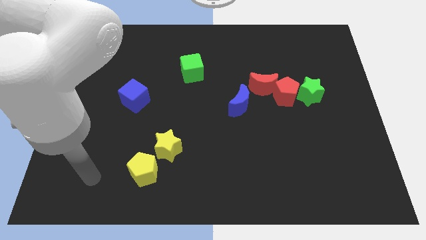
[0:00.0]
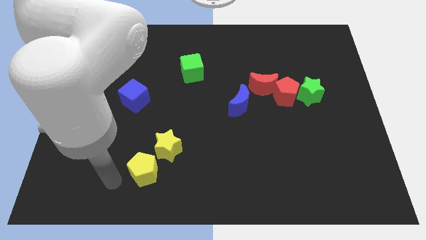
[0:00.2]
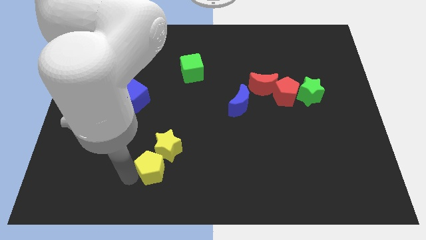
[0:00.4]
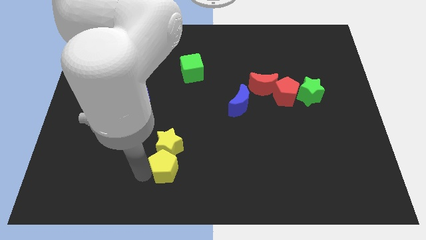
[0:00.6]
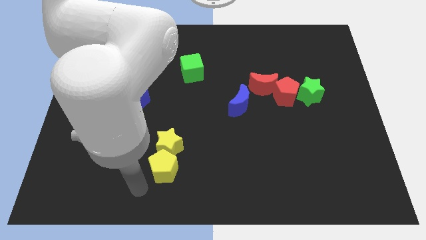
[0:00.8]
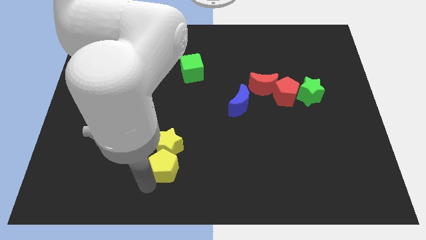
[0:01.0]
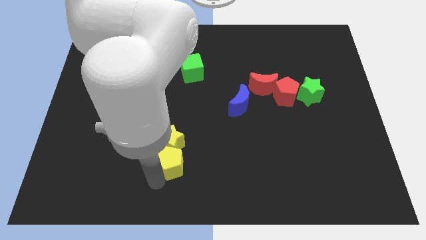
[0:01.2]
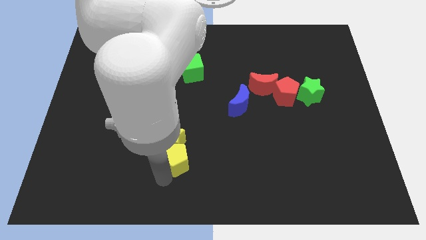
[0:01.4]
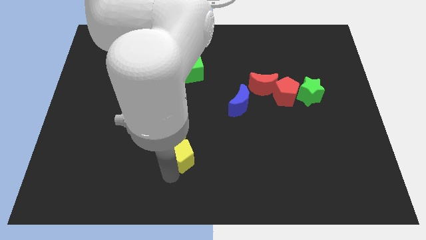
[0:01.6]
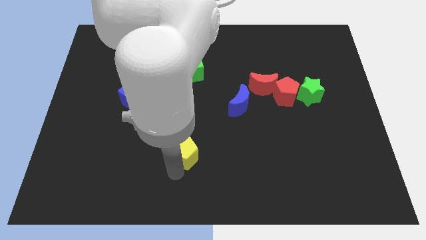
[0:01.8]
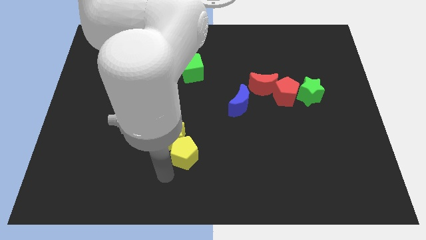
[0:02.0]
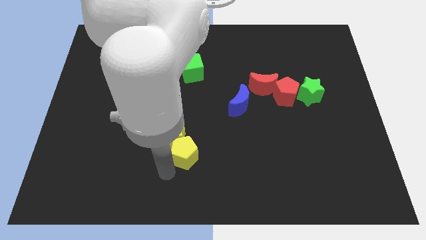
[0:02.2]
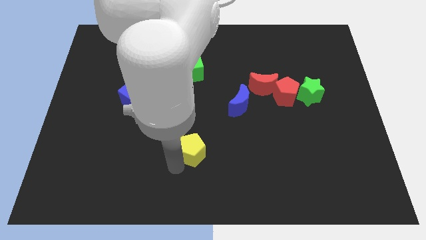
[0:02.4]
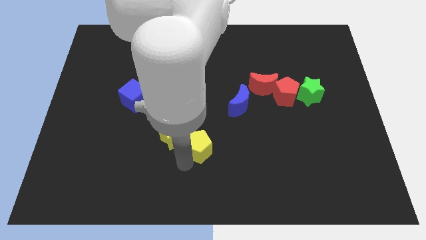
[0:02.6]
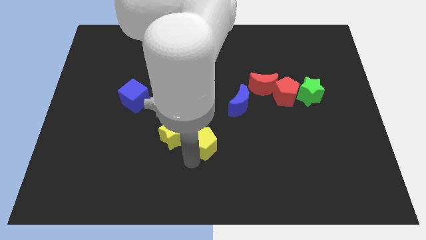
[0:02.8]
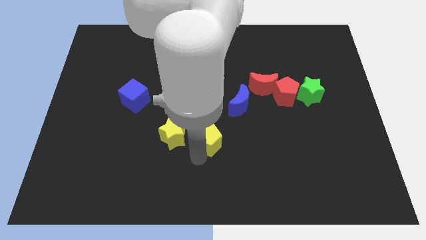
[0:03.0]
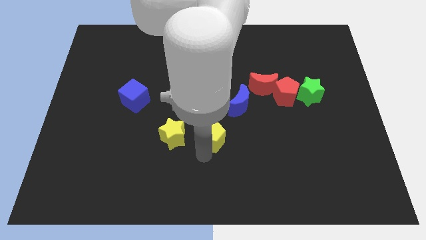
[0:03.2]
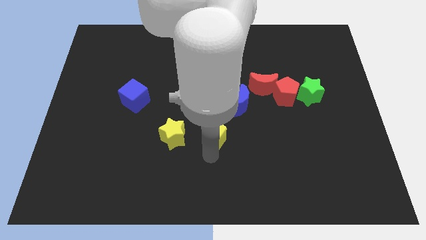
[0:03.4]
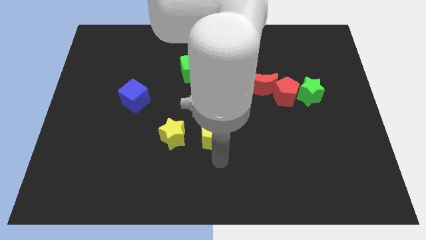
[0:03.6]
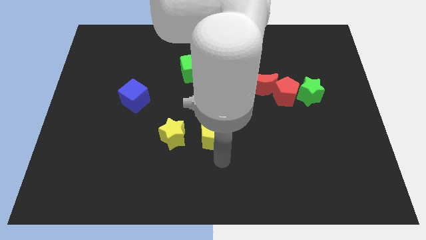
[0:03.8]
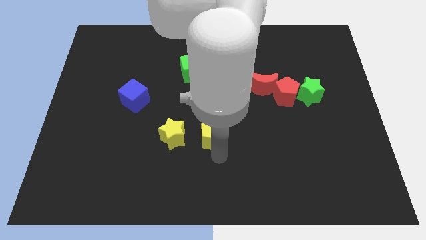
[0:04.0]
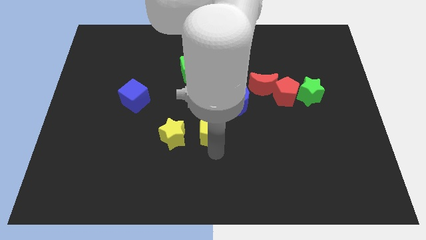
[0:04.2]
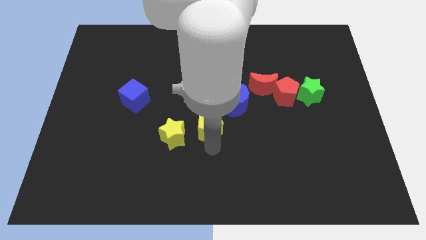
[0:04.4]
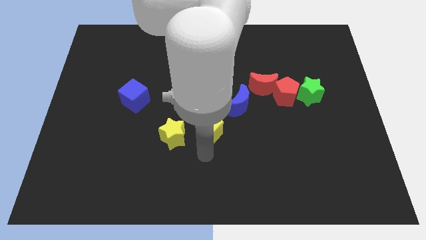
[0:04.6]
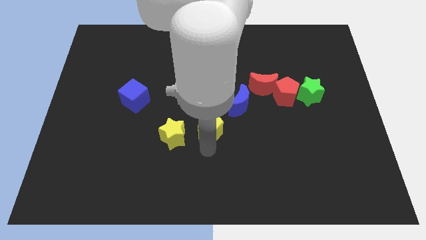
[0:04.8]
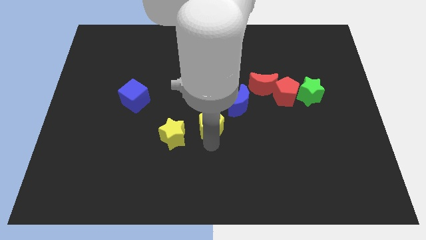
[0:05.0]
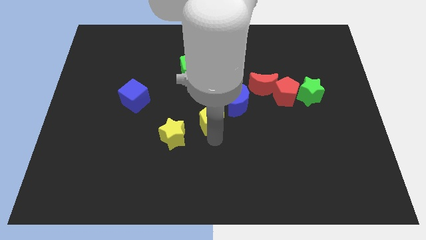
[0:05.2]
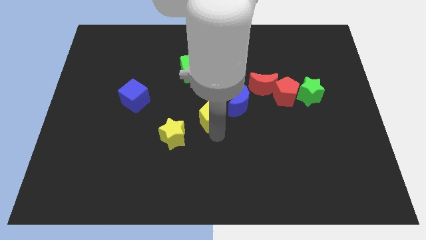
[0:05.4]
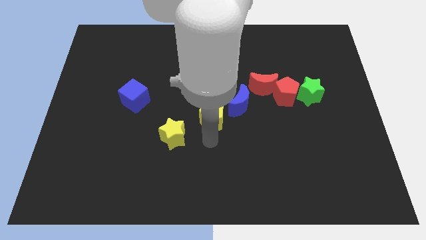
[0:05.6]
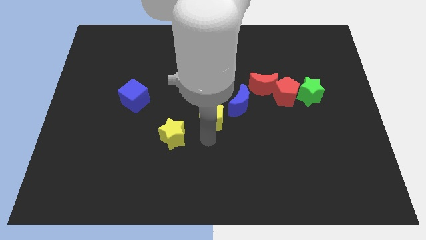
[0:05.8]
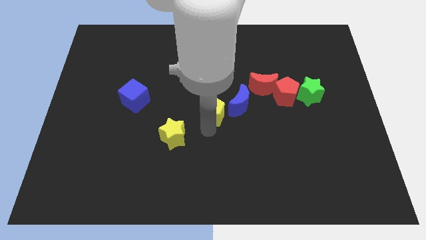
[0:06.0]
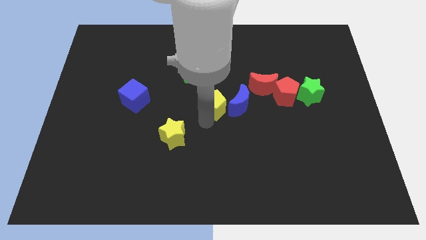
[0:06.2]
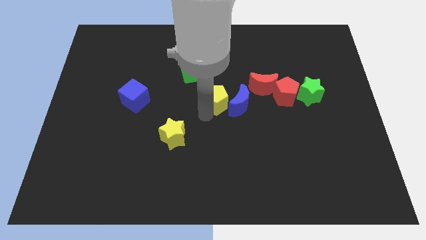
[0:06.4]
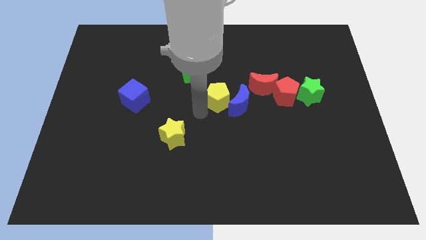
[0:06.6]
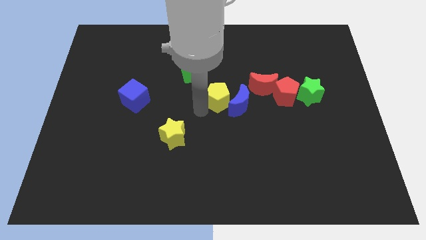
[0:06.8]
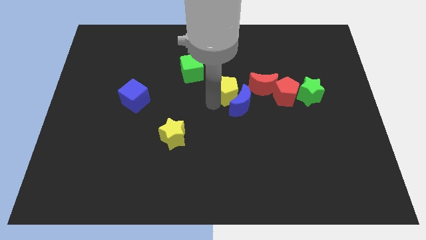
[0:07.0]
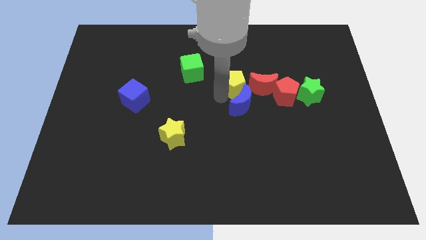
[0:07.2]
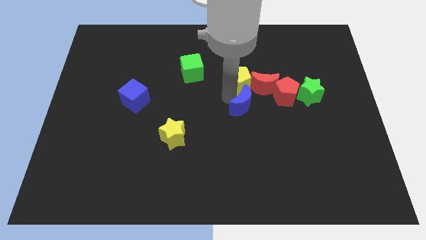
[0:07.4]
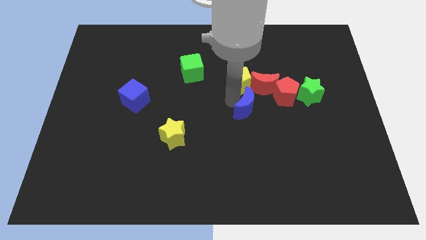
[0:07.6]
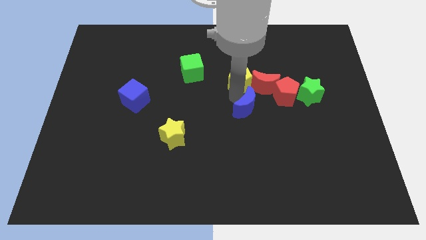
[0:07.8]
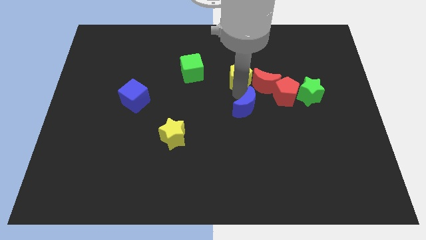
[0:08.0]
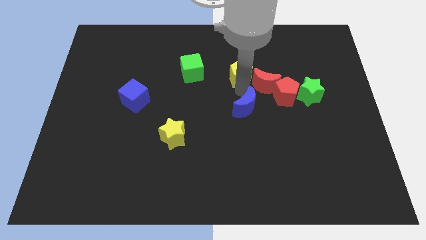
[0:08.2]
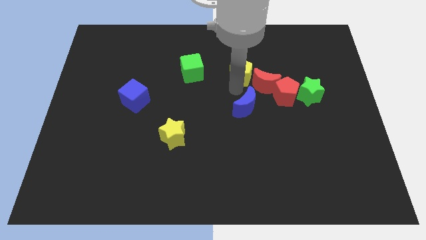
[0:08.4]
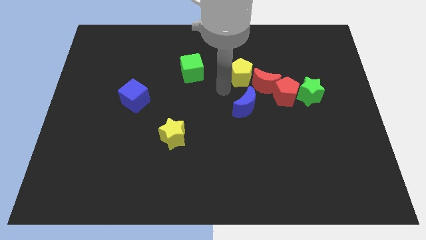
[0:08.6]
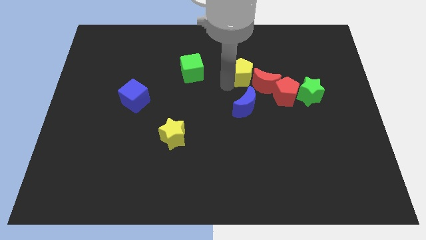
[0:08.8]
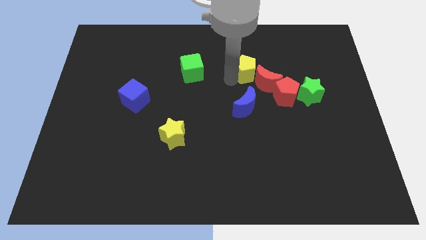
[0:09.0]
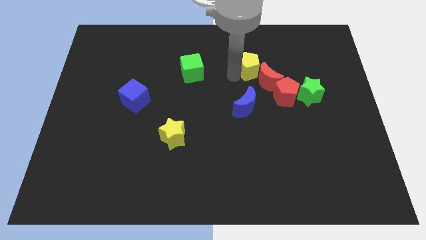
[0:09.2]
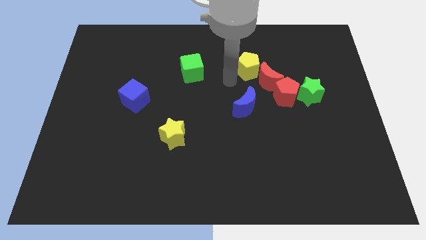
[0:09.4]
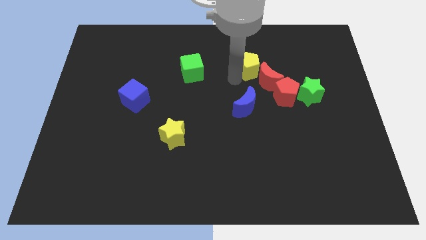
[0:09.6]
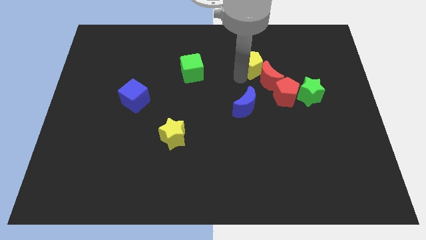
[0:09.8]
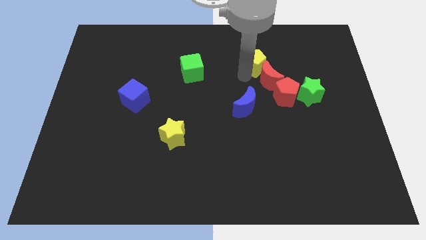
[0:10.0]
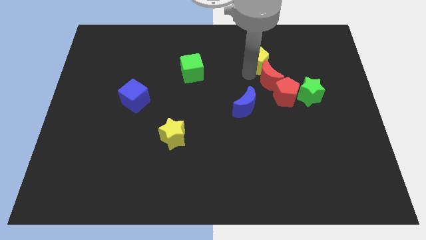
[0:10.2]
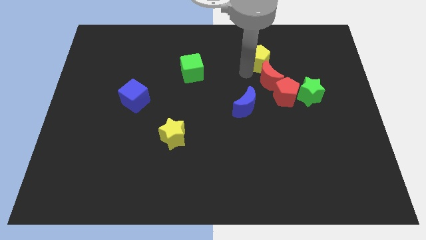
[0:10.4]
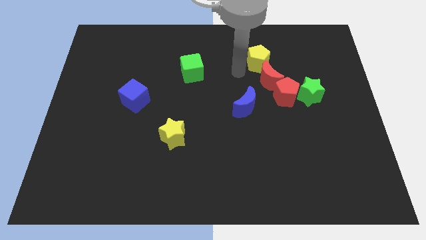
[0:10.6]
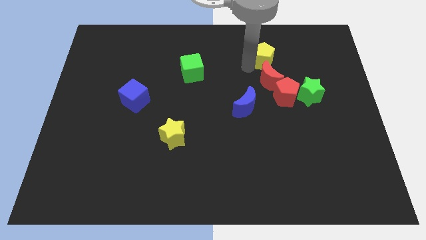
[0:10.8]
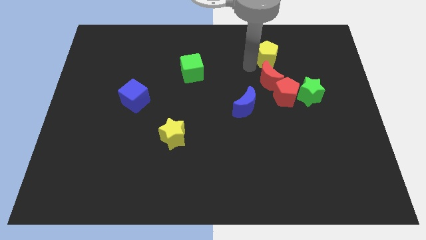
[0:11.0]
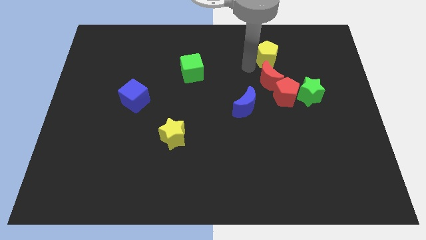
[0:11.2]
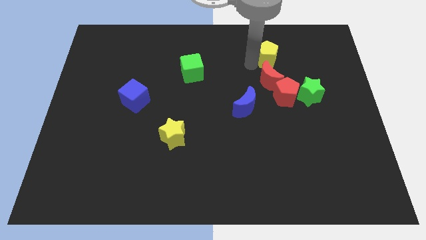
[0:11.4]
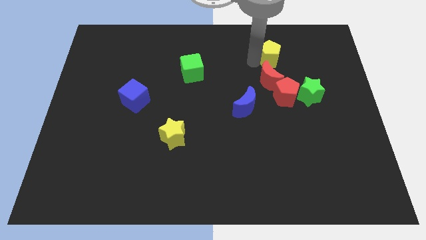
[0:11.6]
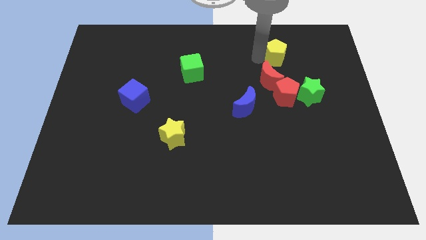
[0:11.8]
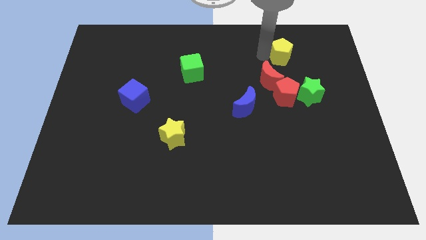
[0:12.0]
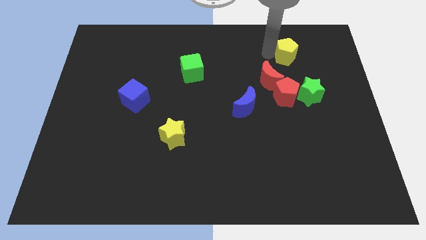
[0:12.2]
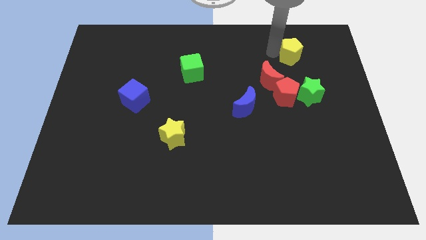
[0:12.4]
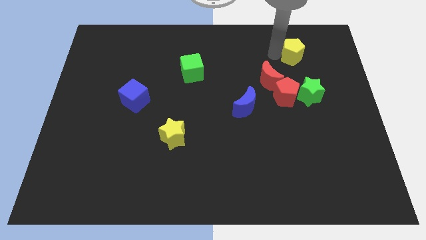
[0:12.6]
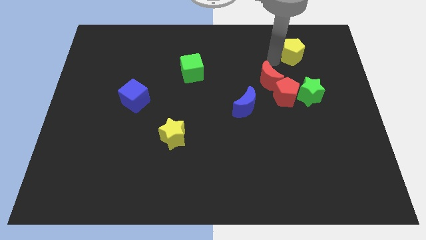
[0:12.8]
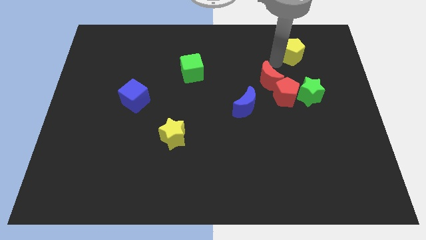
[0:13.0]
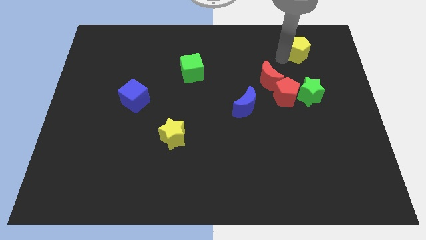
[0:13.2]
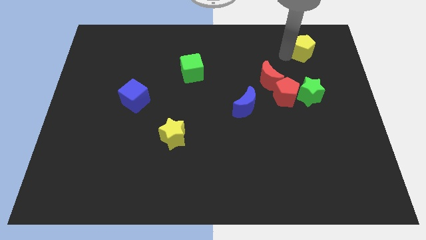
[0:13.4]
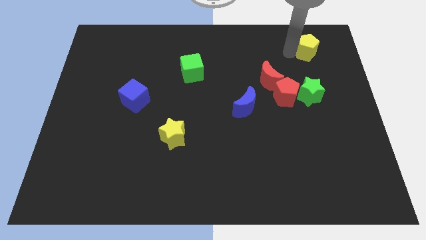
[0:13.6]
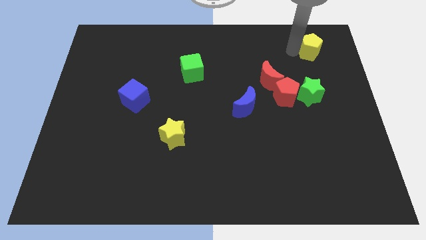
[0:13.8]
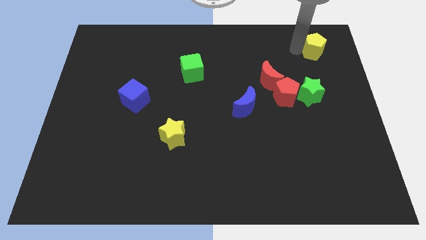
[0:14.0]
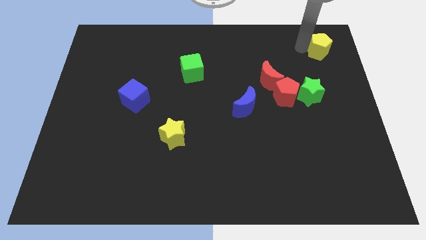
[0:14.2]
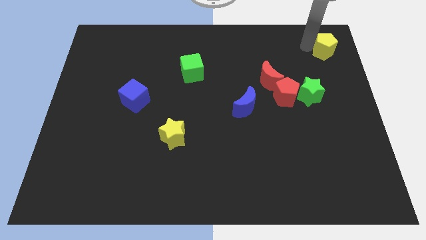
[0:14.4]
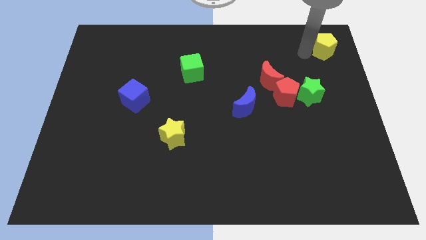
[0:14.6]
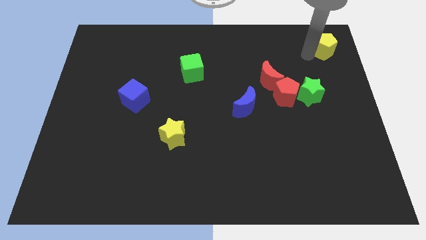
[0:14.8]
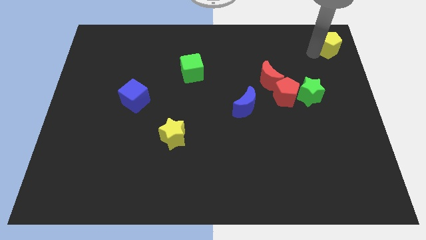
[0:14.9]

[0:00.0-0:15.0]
push the yellow pentagon to the top right of the board
